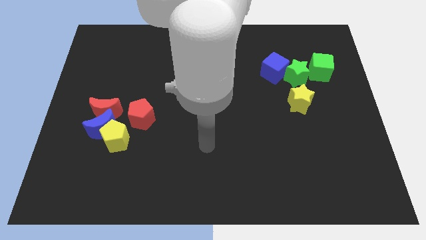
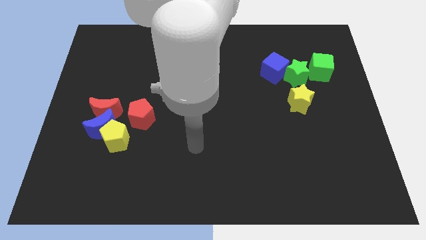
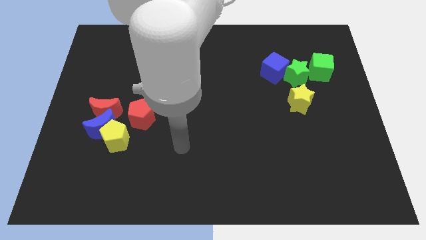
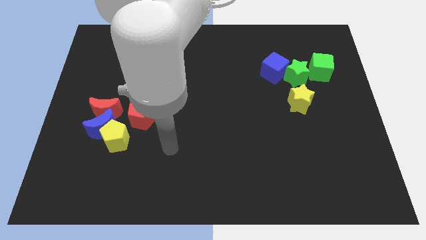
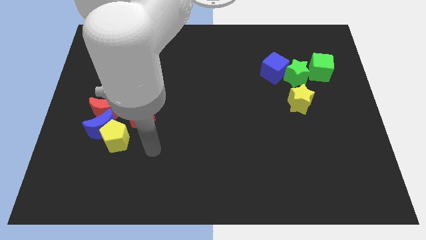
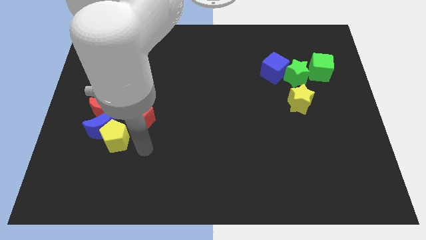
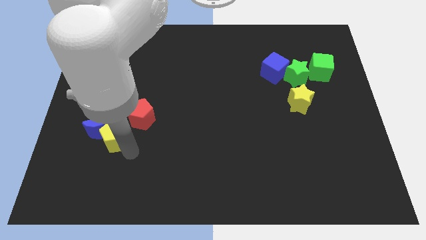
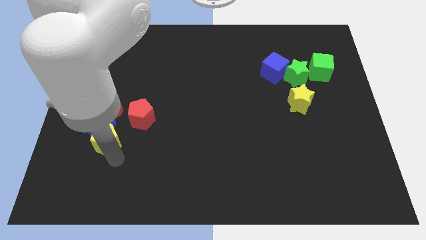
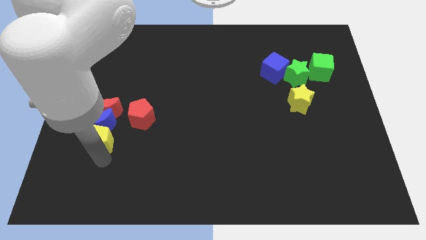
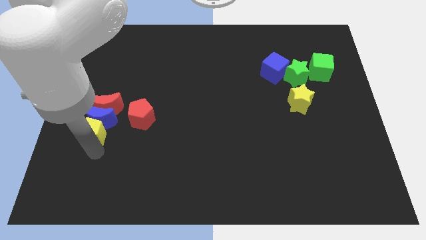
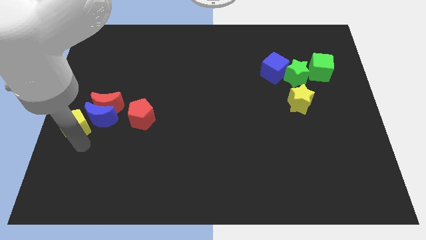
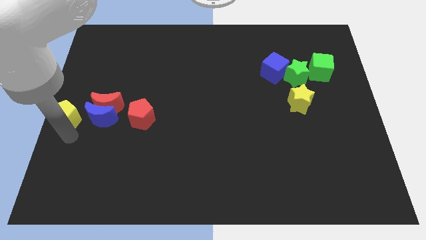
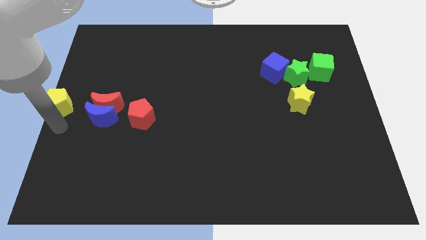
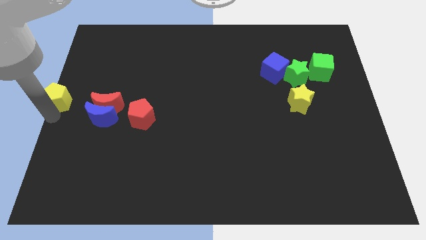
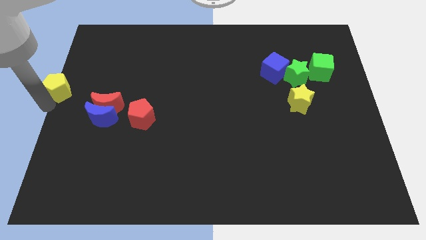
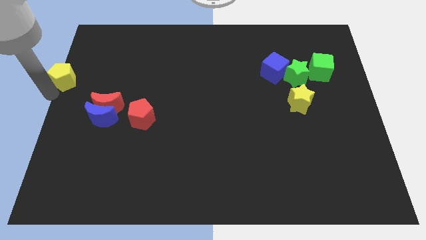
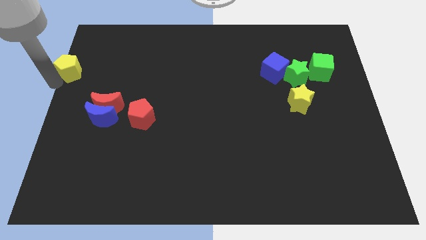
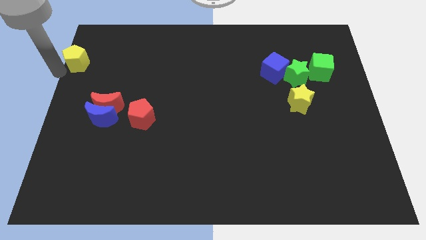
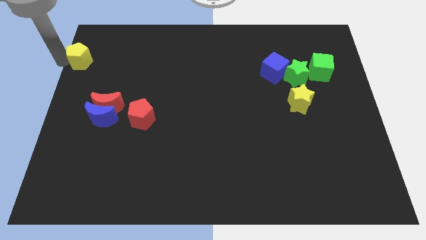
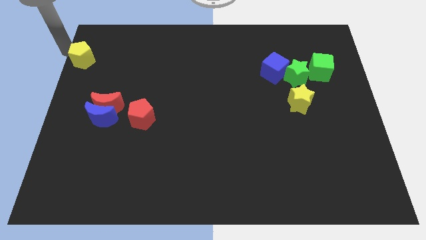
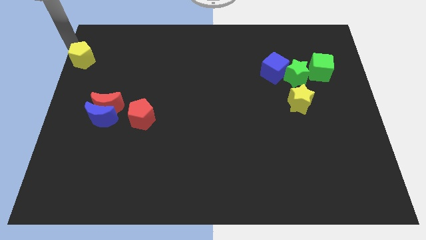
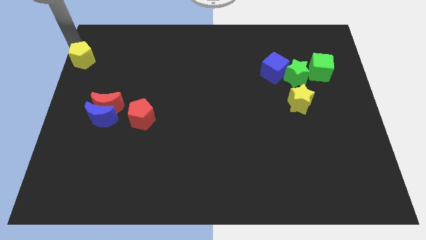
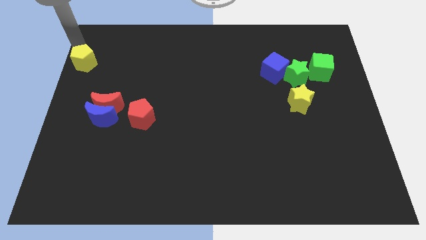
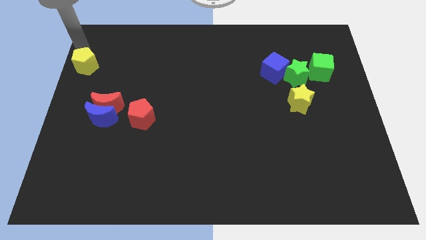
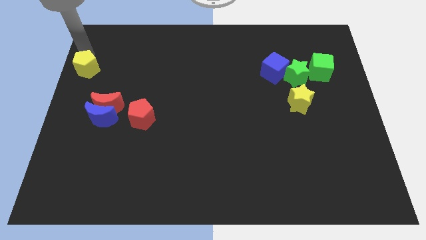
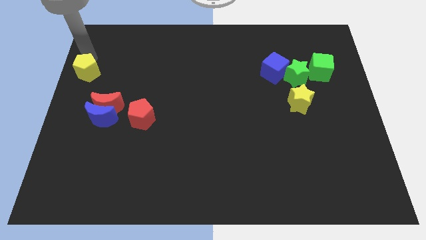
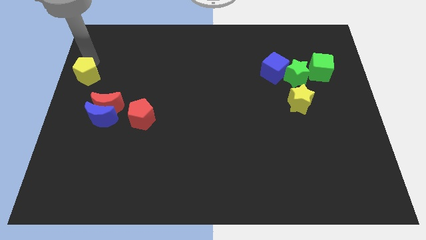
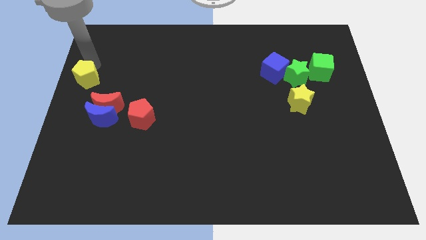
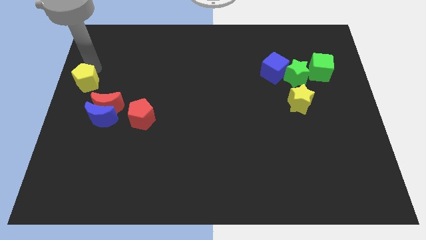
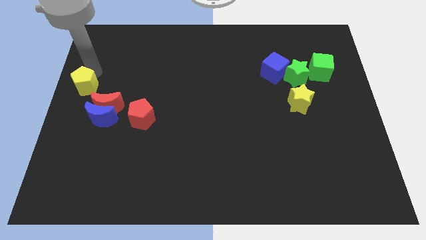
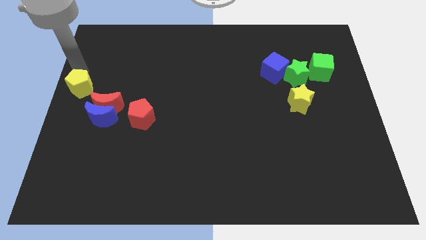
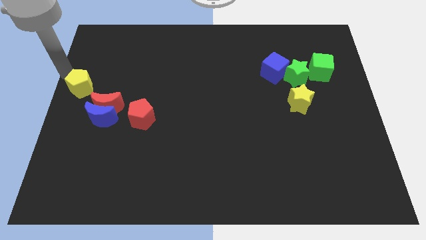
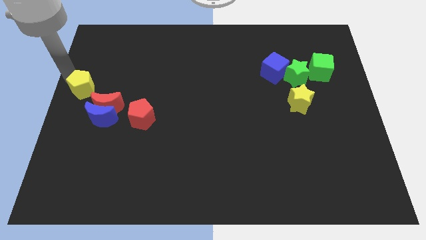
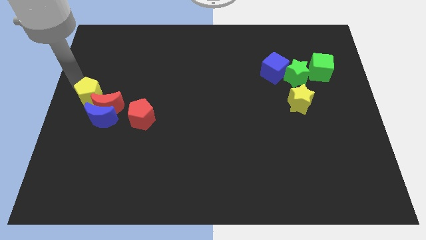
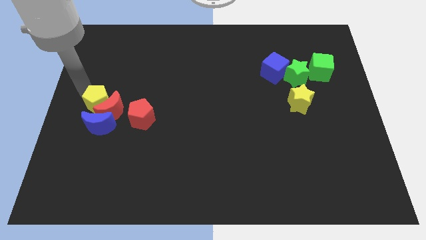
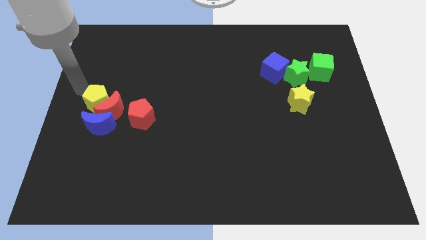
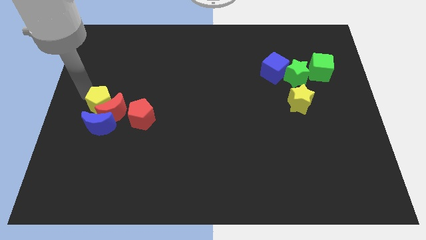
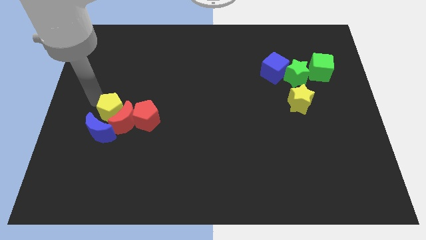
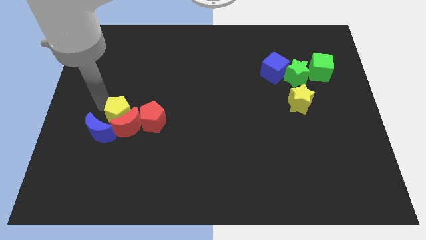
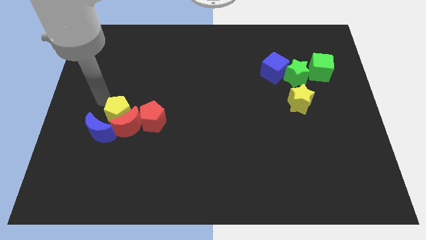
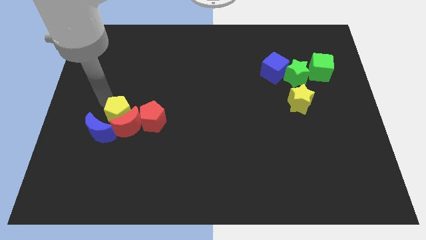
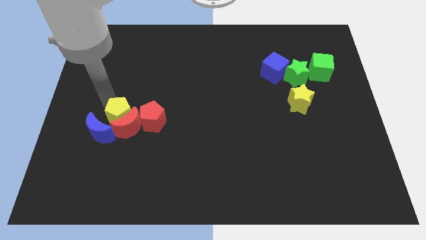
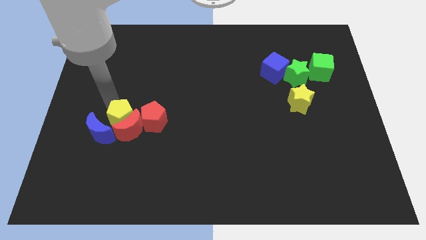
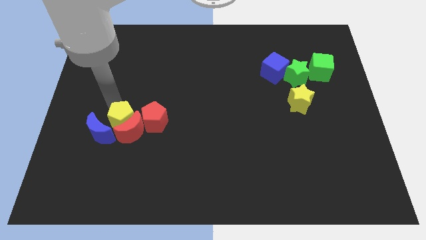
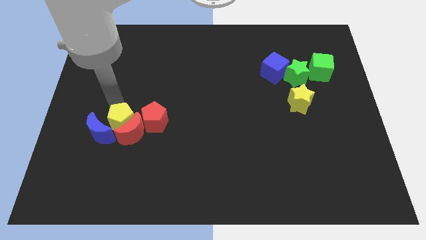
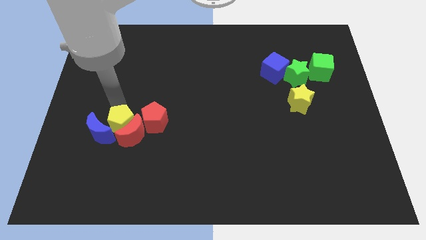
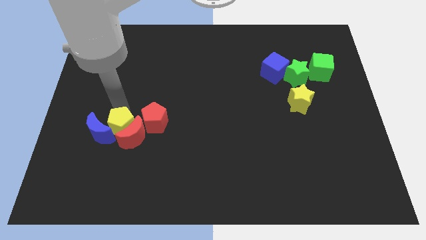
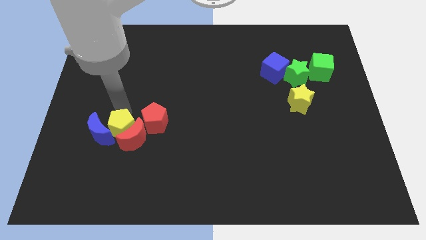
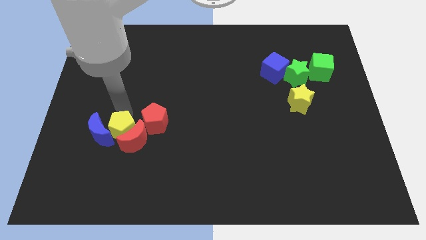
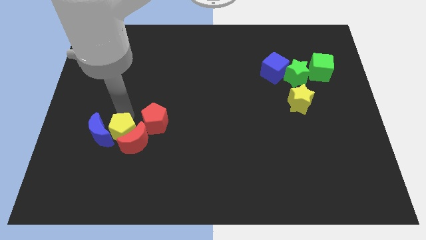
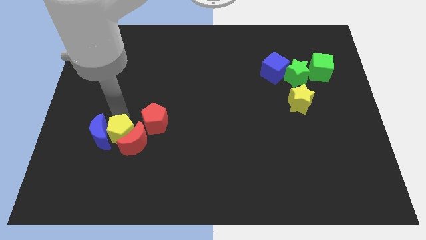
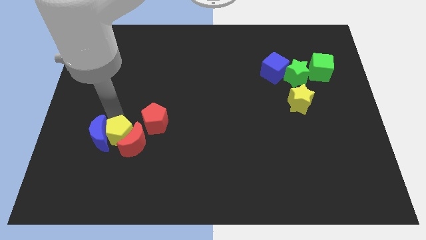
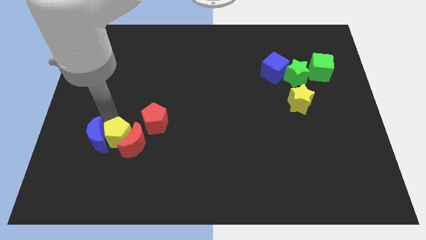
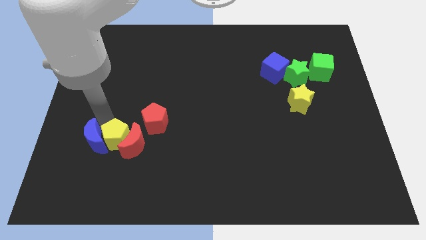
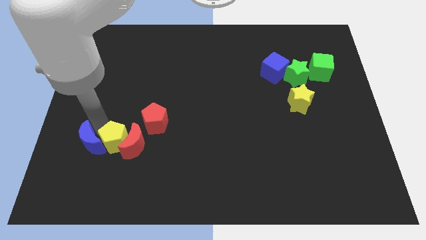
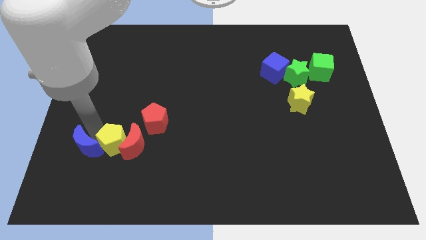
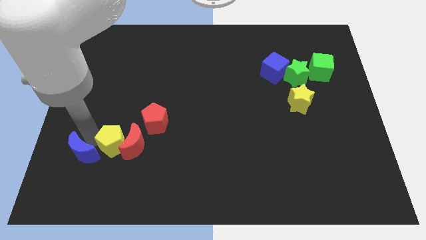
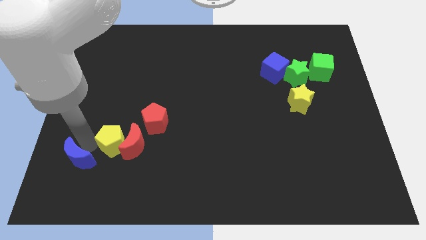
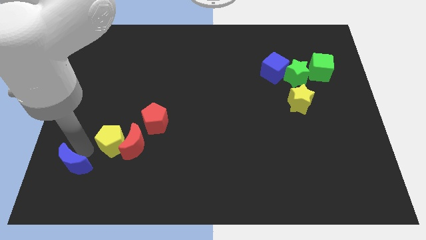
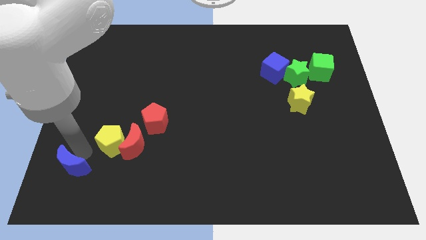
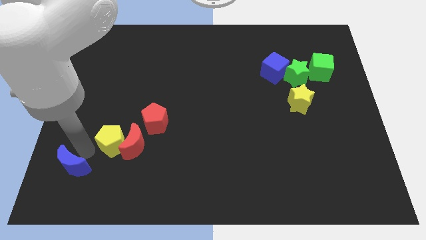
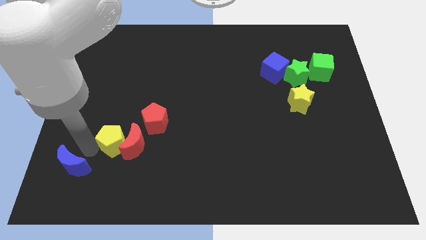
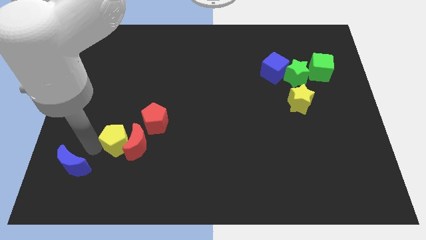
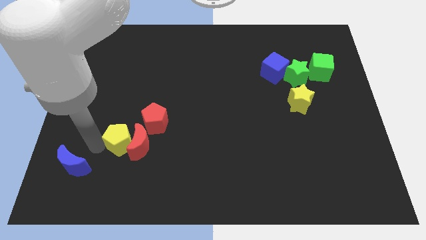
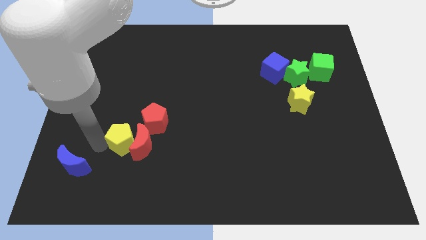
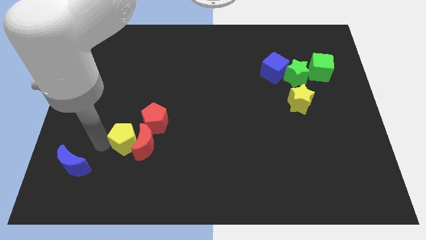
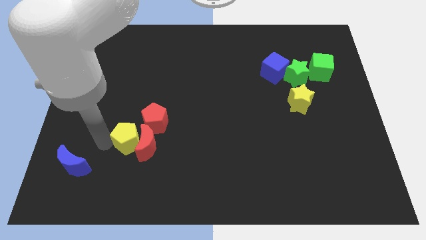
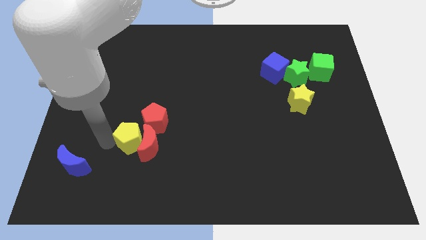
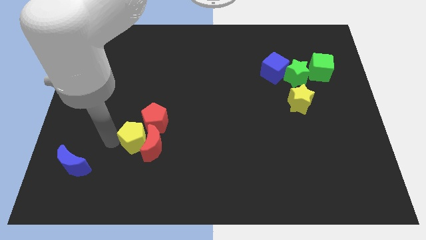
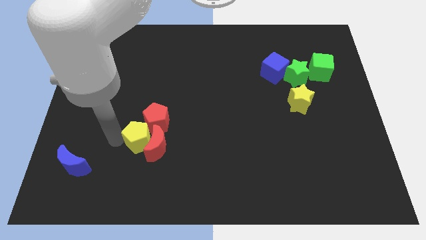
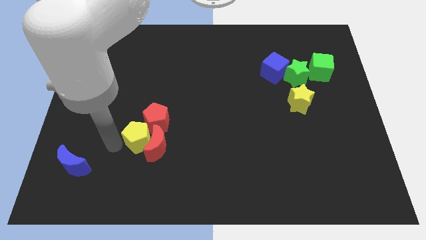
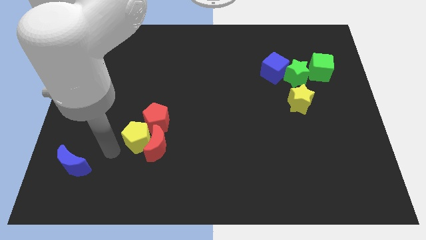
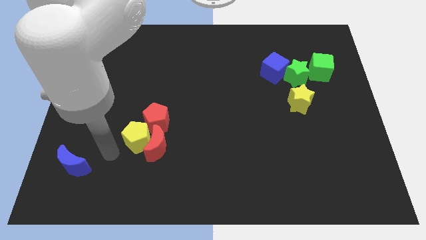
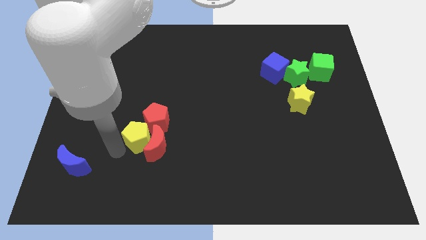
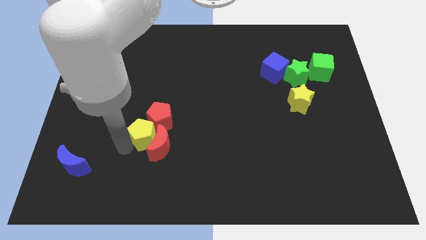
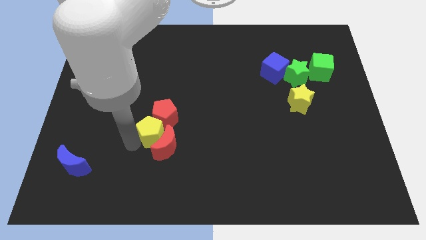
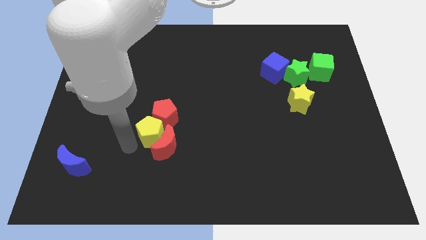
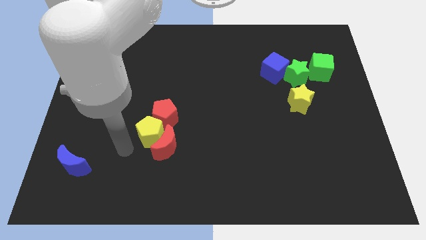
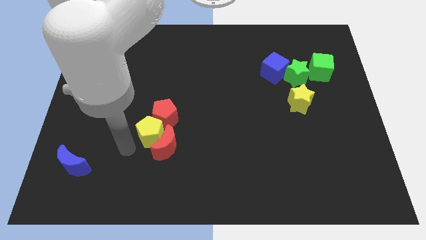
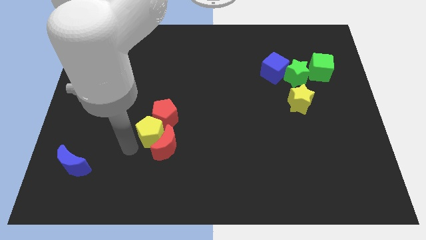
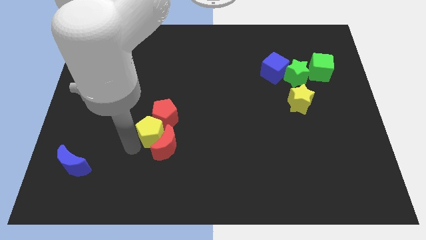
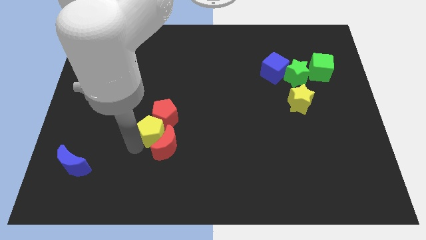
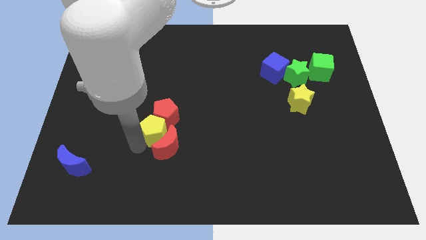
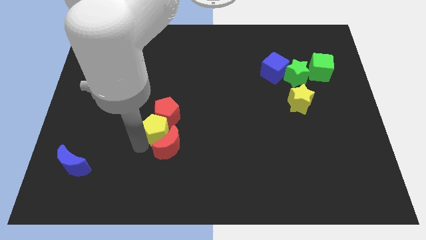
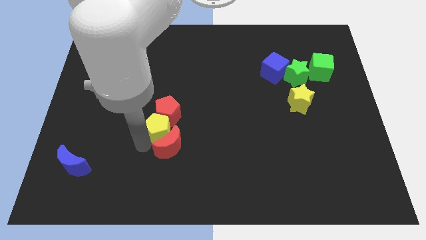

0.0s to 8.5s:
slide the yellow pentagon slightly diagonally up and right
